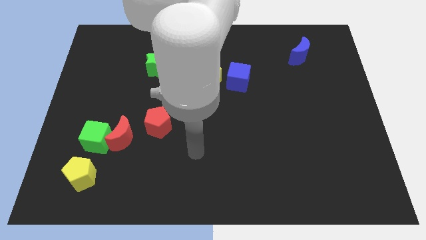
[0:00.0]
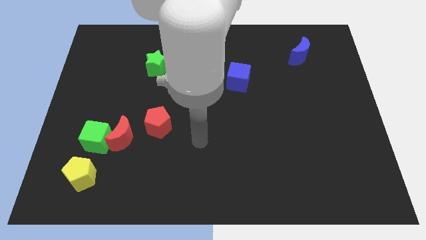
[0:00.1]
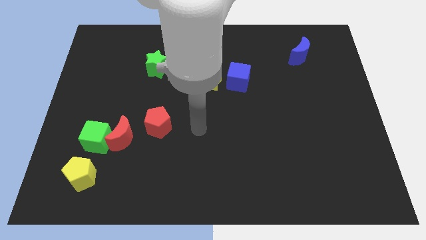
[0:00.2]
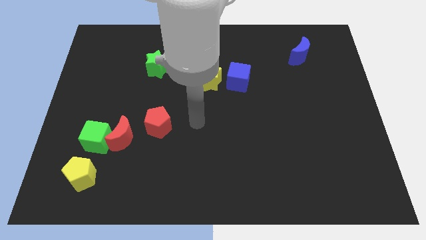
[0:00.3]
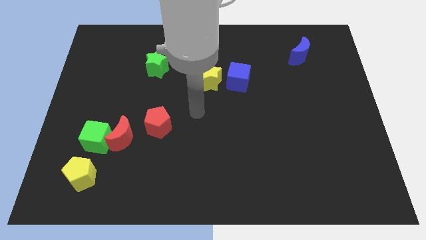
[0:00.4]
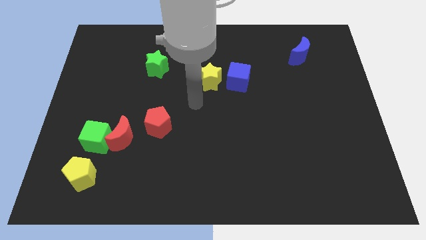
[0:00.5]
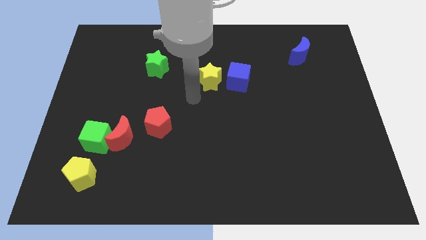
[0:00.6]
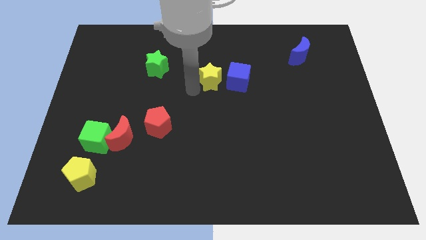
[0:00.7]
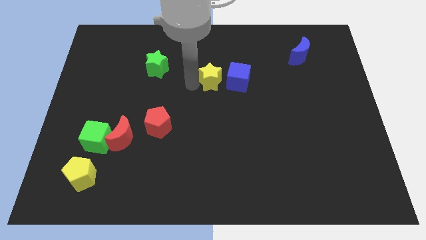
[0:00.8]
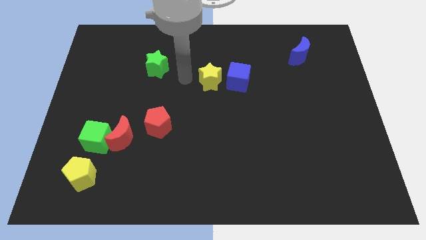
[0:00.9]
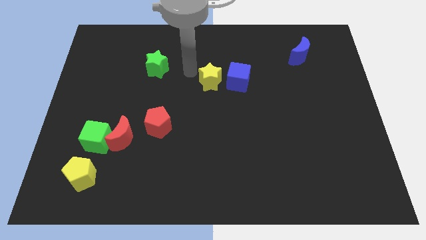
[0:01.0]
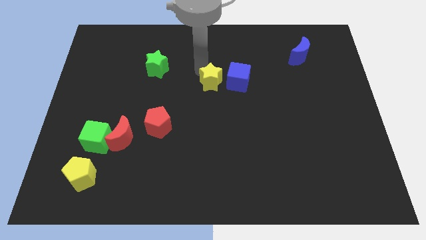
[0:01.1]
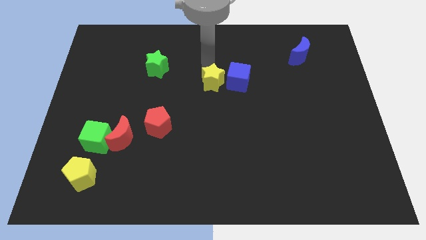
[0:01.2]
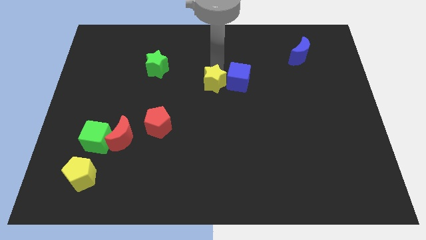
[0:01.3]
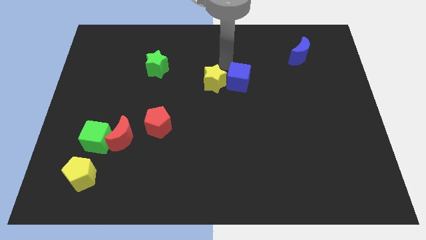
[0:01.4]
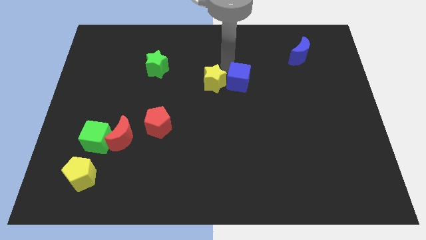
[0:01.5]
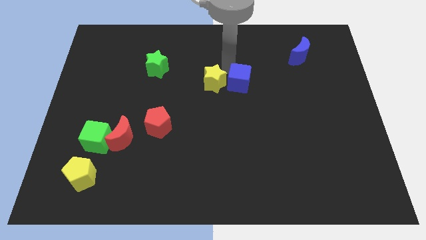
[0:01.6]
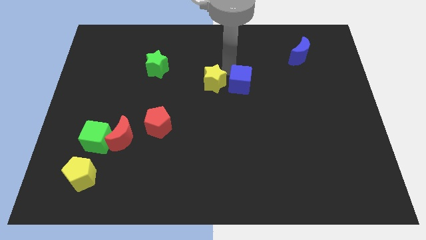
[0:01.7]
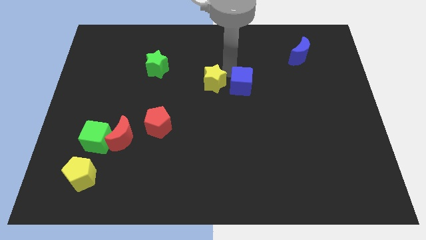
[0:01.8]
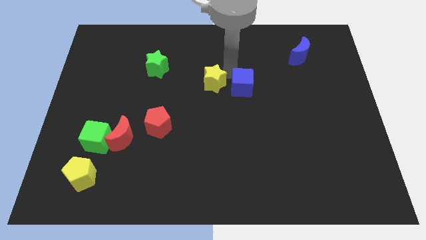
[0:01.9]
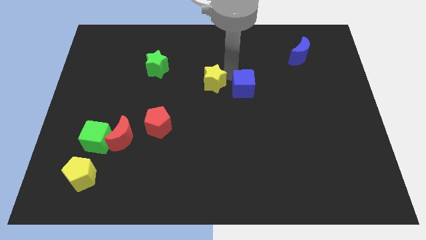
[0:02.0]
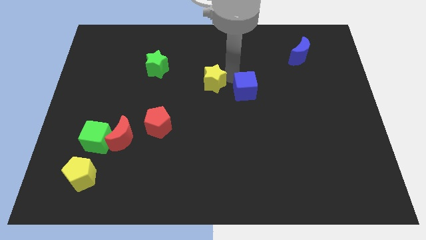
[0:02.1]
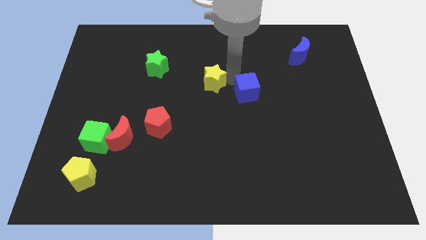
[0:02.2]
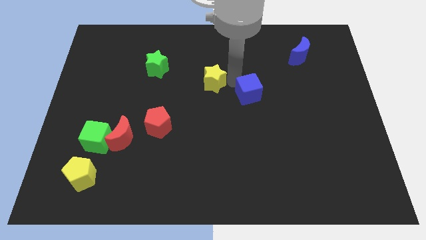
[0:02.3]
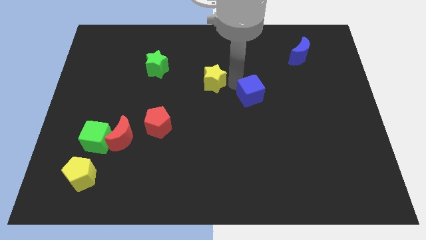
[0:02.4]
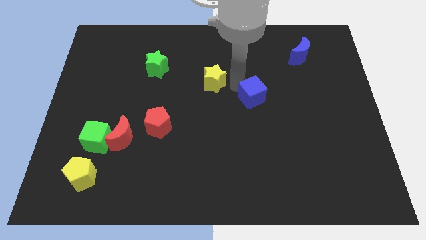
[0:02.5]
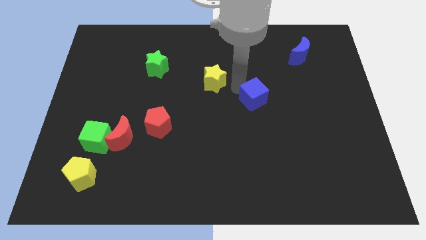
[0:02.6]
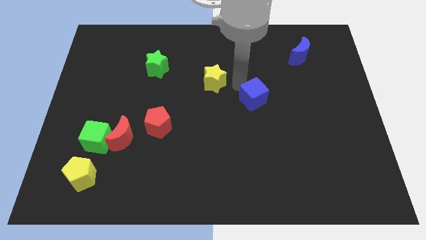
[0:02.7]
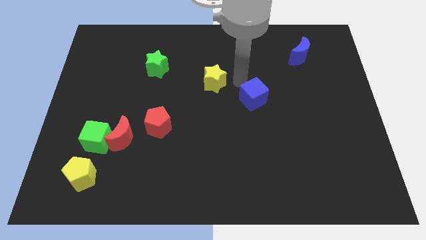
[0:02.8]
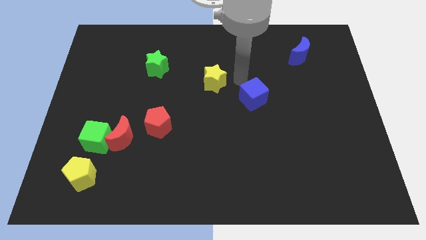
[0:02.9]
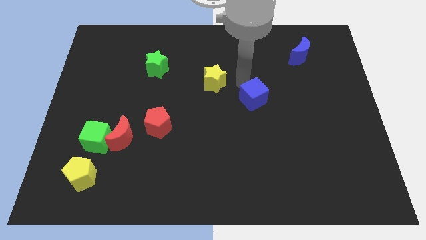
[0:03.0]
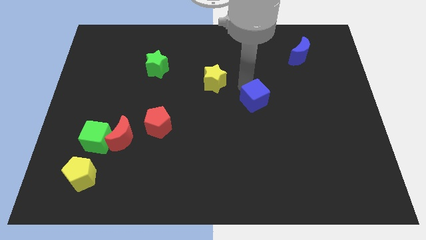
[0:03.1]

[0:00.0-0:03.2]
push the blue cube downwards and right diagonally a bit

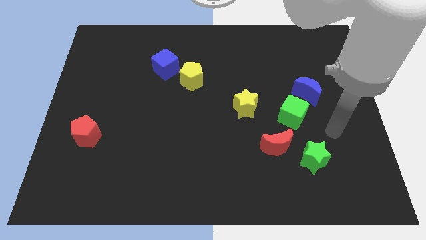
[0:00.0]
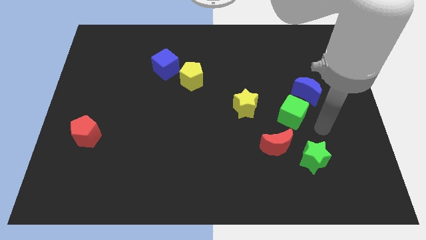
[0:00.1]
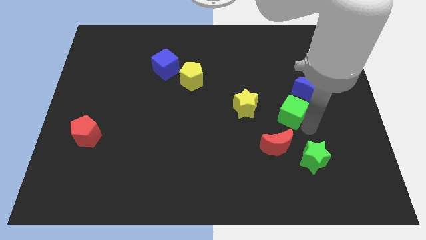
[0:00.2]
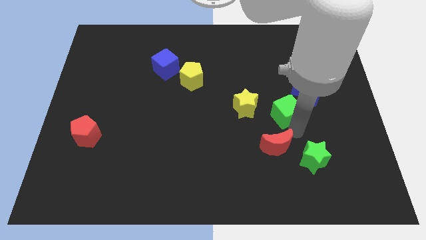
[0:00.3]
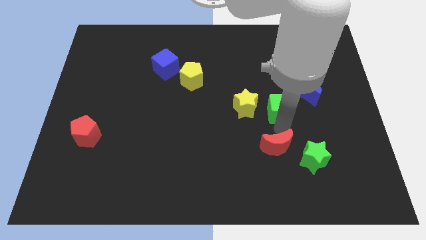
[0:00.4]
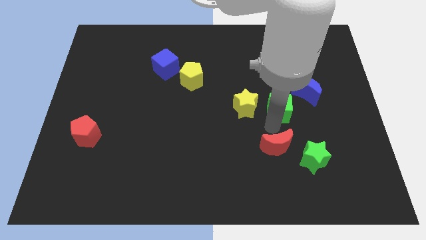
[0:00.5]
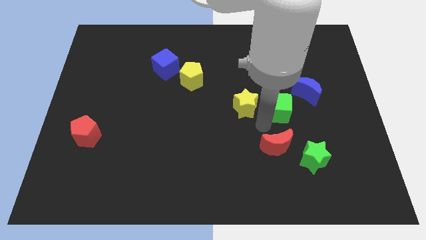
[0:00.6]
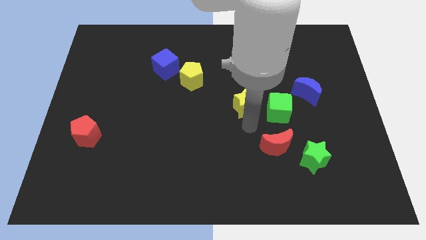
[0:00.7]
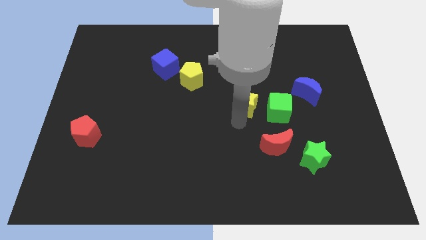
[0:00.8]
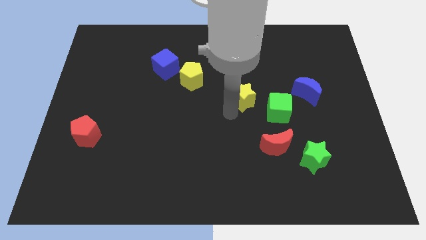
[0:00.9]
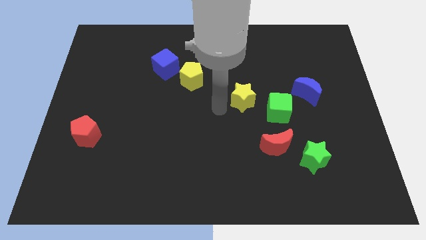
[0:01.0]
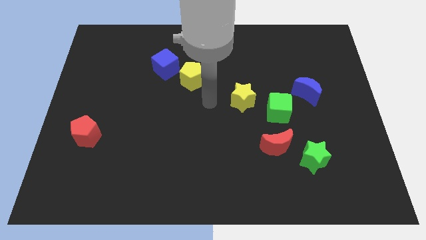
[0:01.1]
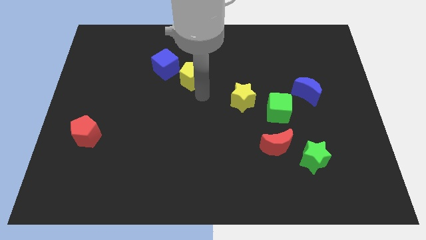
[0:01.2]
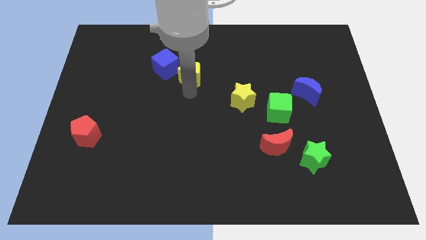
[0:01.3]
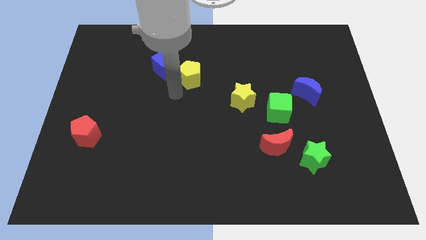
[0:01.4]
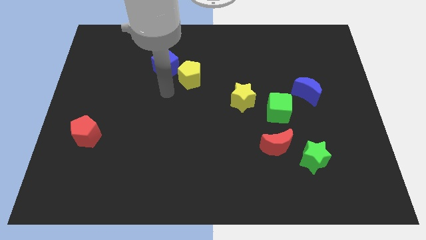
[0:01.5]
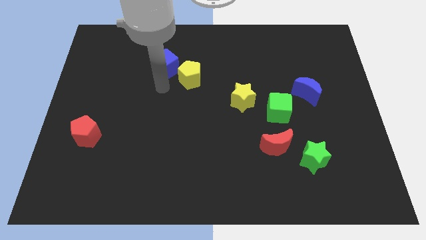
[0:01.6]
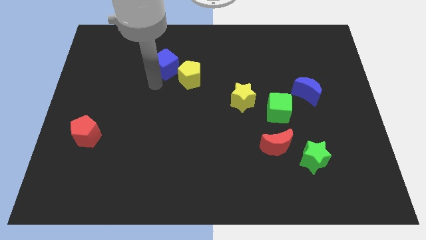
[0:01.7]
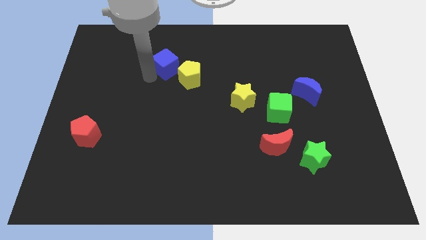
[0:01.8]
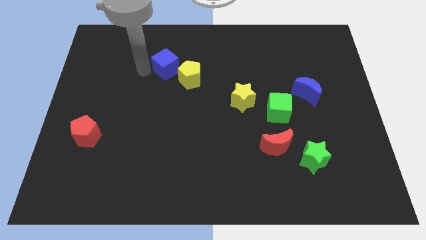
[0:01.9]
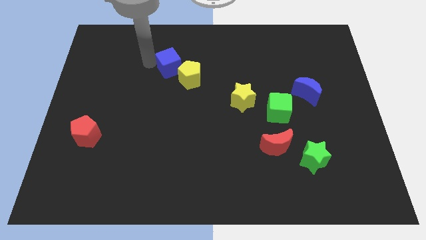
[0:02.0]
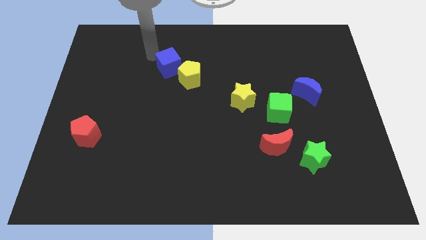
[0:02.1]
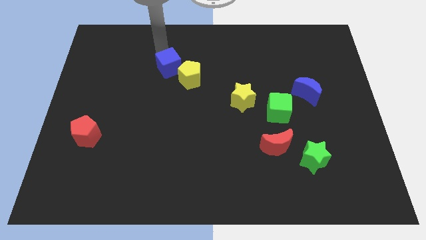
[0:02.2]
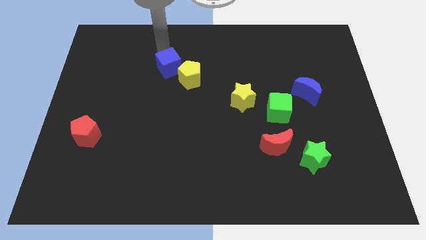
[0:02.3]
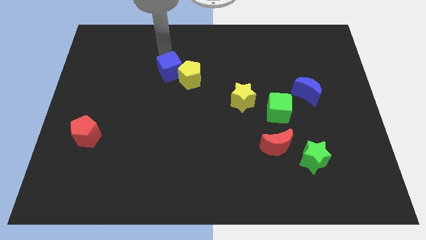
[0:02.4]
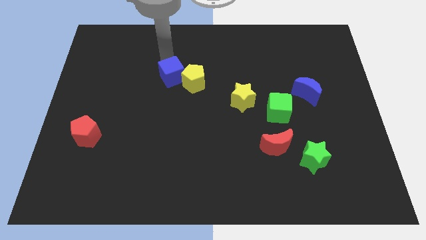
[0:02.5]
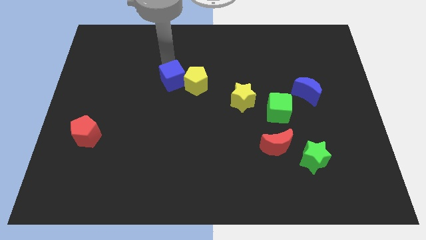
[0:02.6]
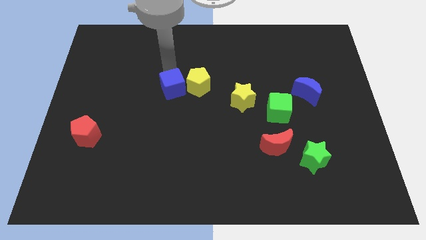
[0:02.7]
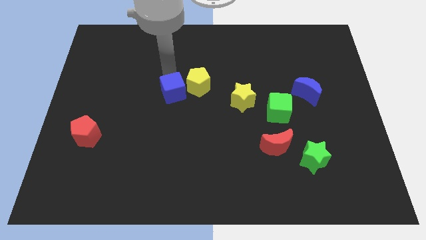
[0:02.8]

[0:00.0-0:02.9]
move the blue cube slightly diagonally downwards and to the right

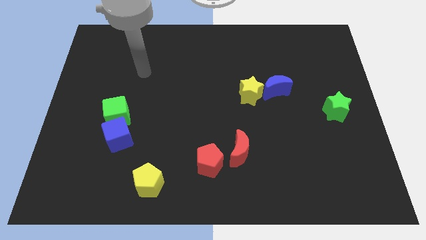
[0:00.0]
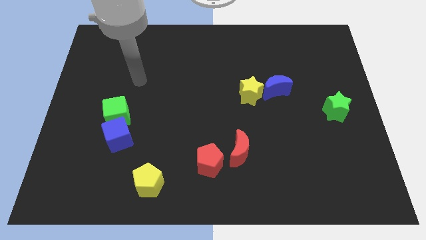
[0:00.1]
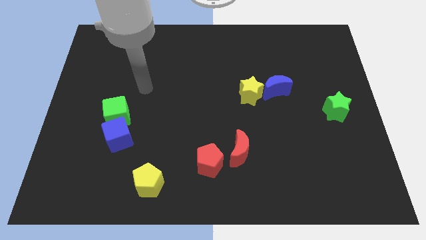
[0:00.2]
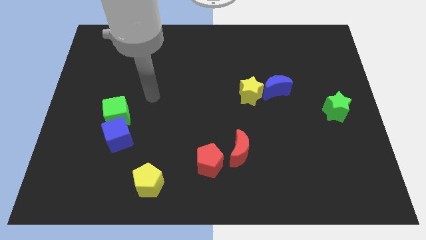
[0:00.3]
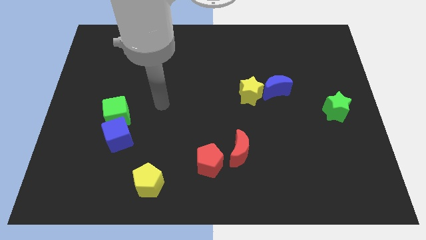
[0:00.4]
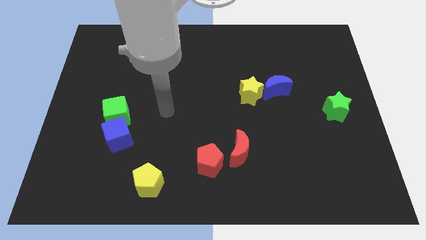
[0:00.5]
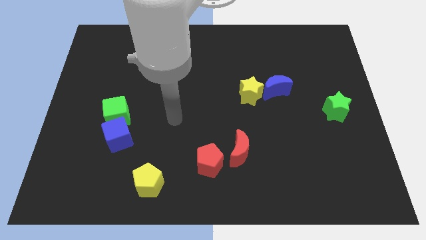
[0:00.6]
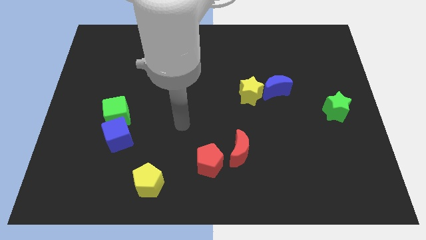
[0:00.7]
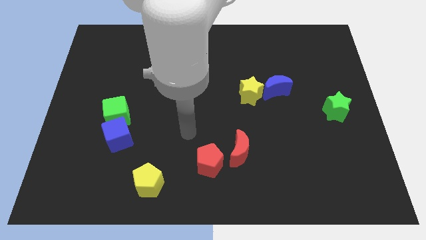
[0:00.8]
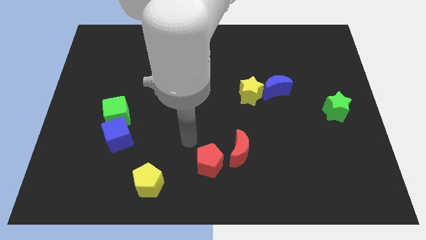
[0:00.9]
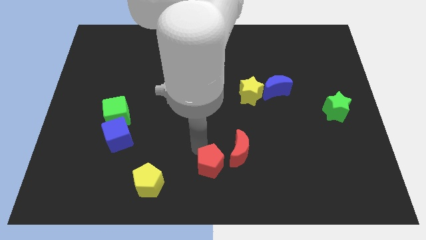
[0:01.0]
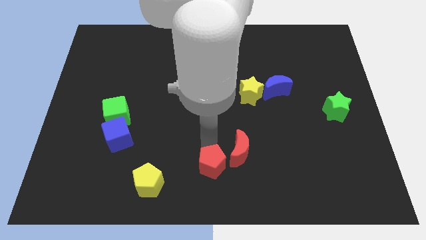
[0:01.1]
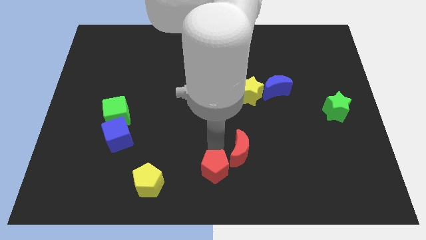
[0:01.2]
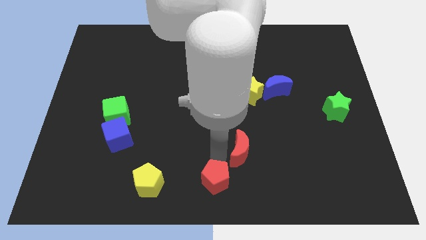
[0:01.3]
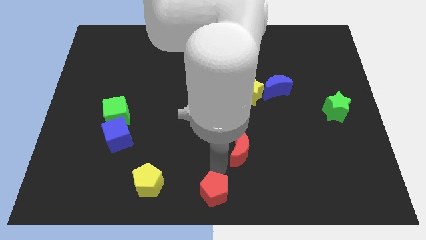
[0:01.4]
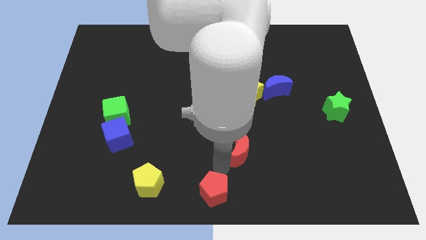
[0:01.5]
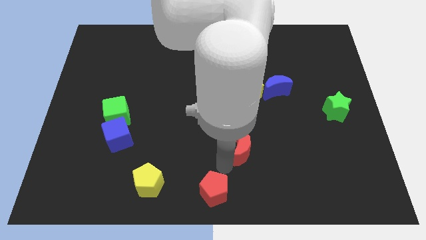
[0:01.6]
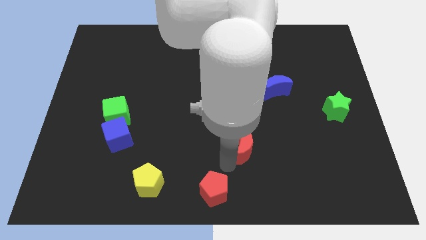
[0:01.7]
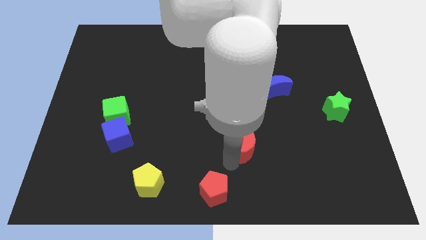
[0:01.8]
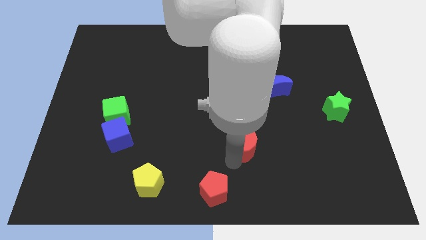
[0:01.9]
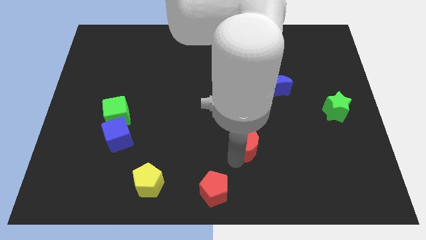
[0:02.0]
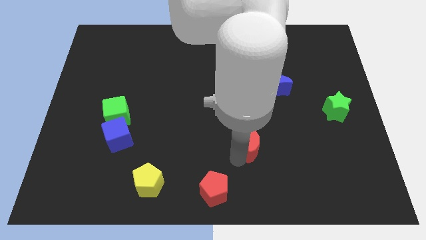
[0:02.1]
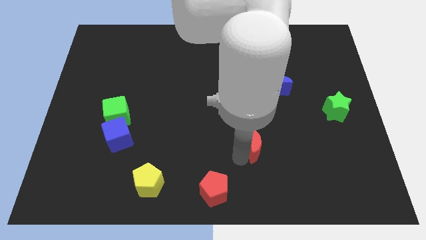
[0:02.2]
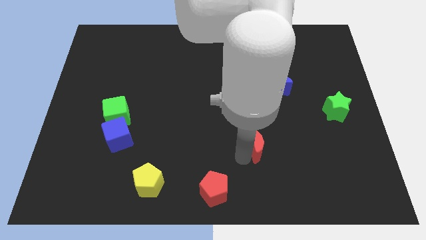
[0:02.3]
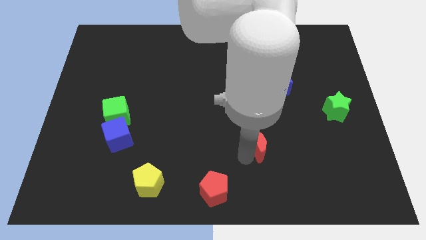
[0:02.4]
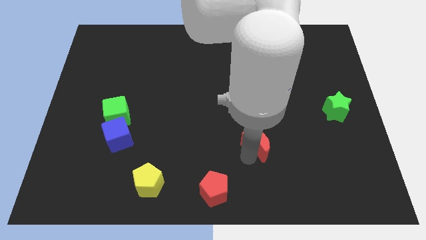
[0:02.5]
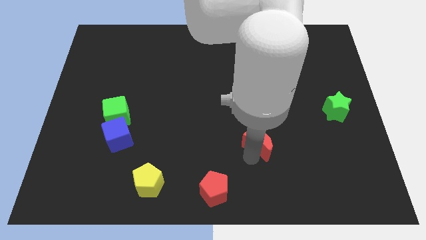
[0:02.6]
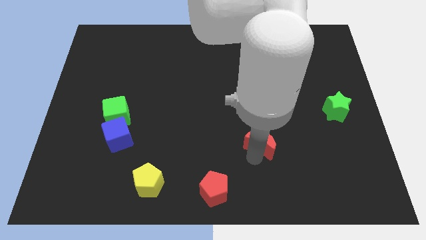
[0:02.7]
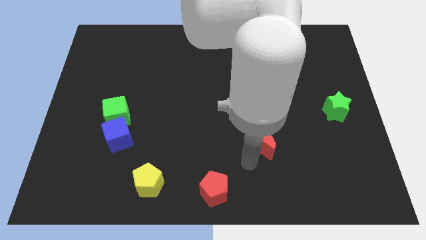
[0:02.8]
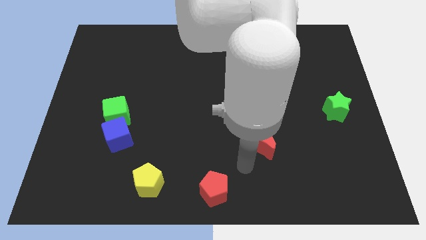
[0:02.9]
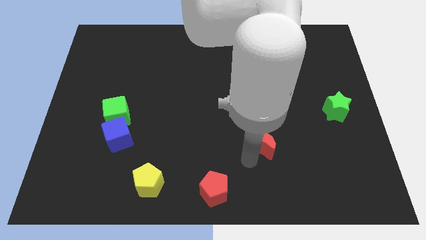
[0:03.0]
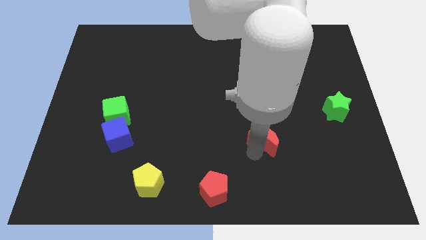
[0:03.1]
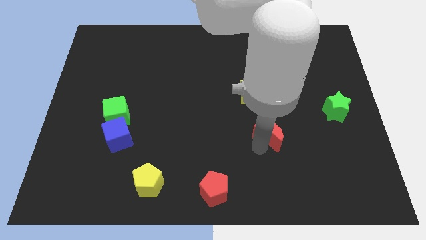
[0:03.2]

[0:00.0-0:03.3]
move the red moon somewhat upwards and then to the right
